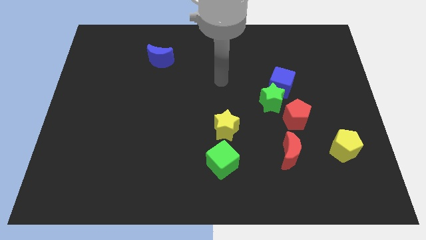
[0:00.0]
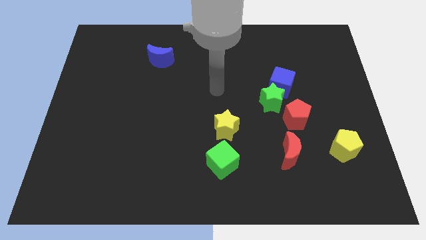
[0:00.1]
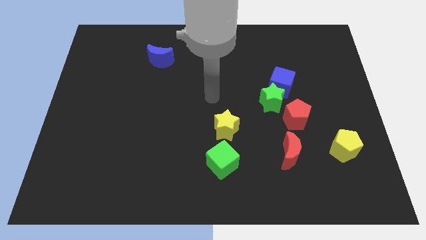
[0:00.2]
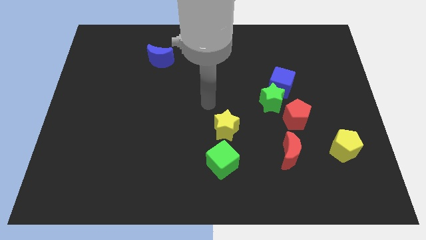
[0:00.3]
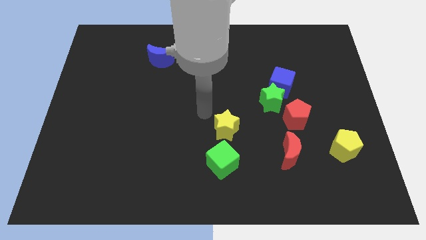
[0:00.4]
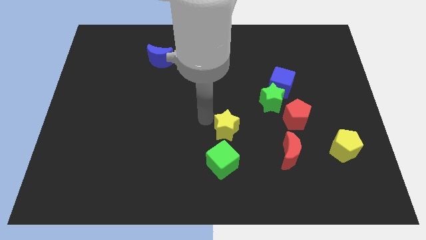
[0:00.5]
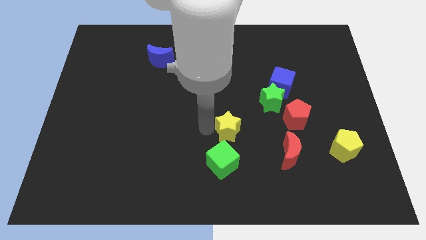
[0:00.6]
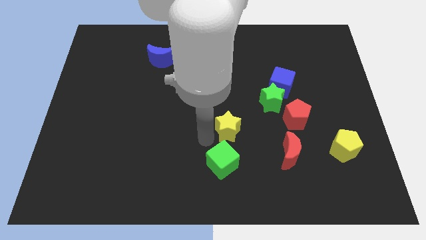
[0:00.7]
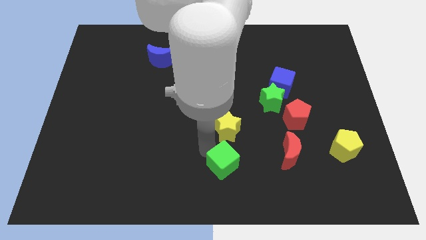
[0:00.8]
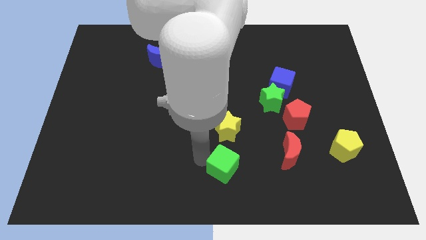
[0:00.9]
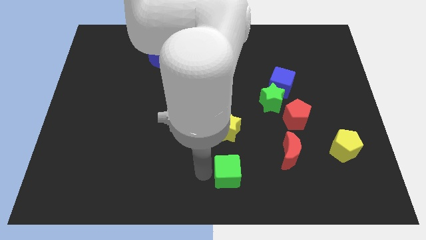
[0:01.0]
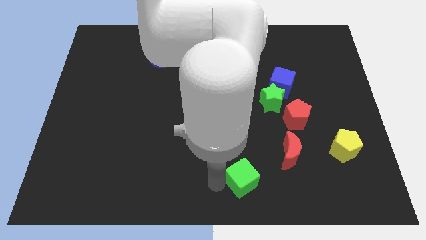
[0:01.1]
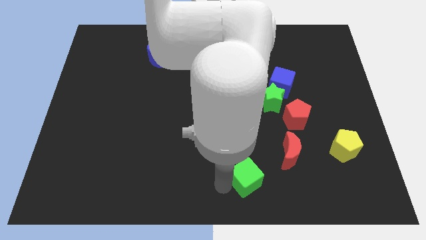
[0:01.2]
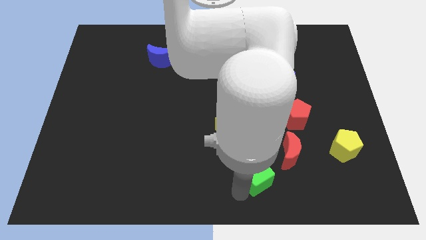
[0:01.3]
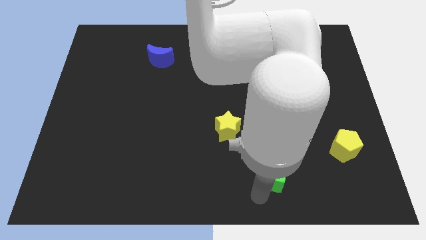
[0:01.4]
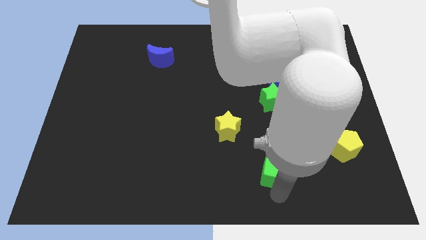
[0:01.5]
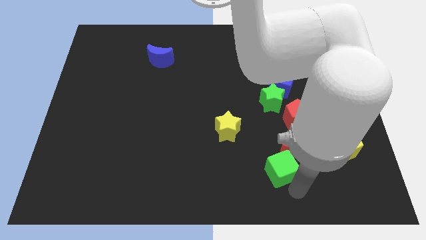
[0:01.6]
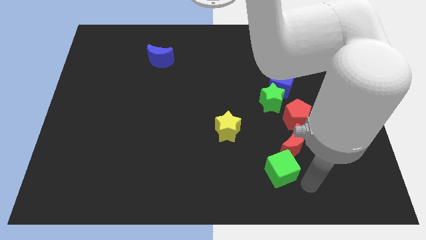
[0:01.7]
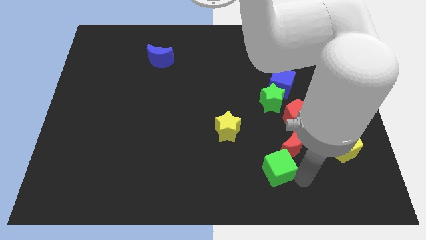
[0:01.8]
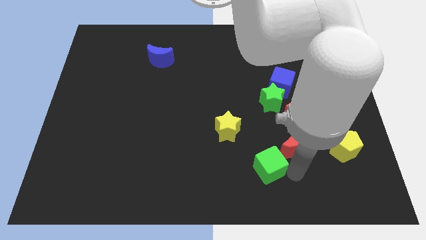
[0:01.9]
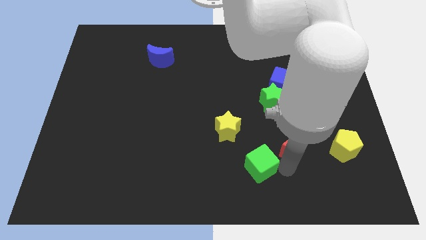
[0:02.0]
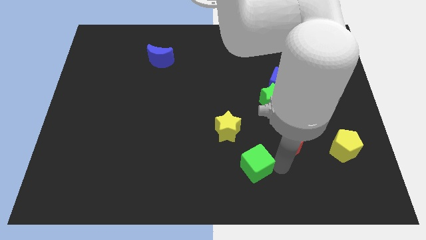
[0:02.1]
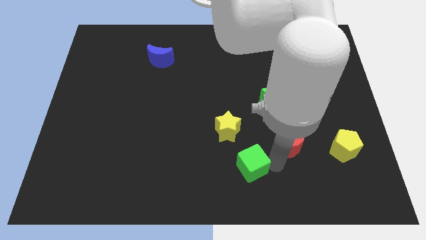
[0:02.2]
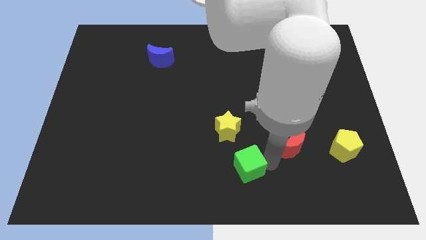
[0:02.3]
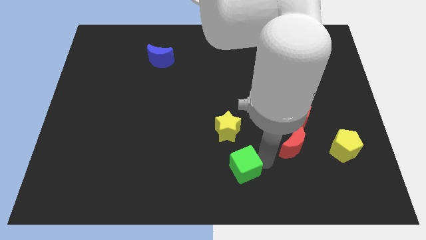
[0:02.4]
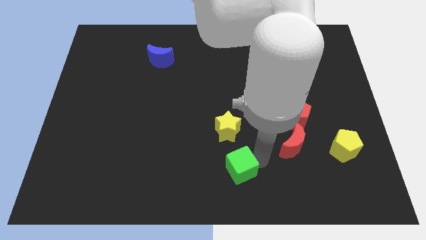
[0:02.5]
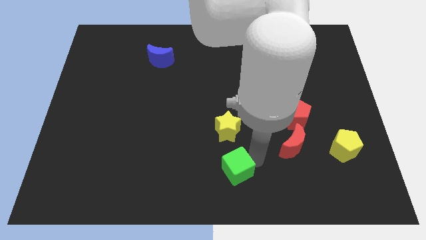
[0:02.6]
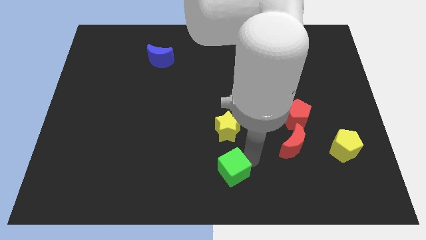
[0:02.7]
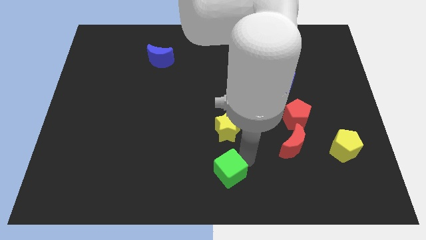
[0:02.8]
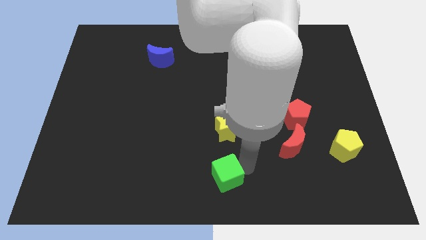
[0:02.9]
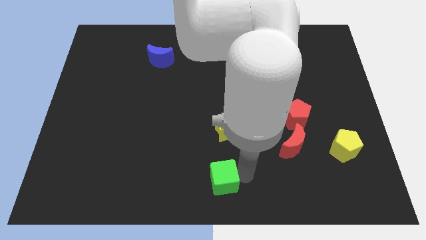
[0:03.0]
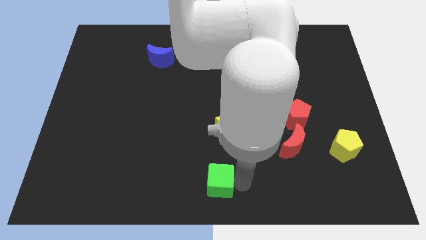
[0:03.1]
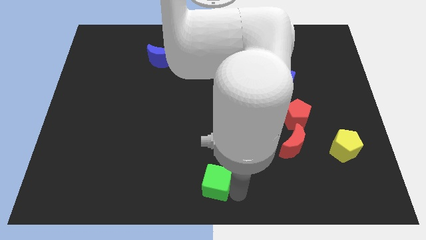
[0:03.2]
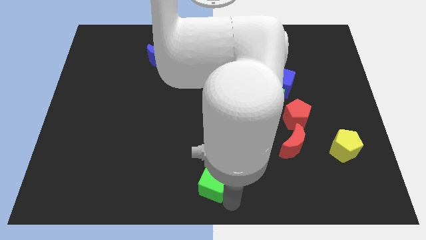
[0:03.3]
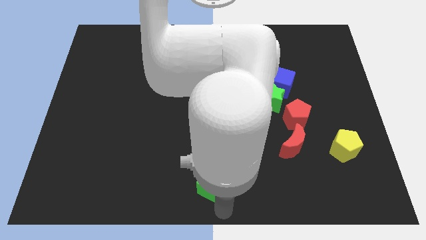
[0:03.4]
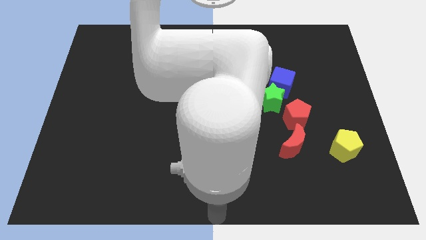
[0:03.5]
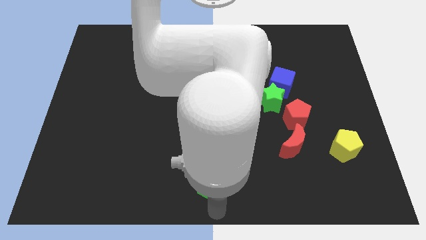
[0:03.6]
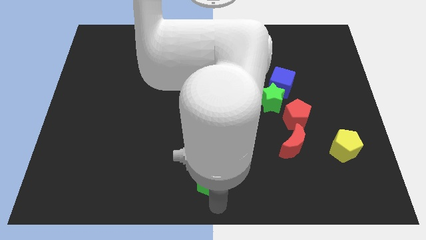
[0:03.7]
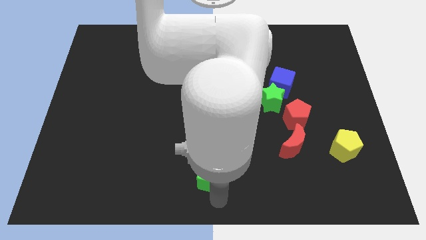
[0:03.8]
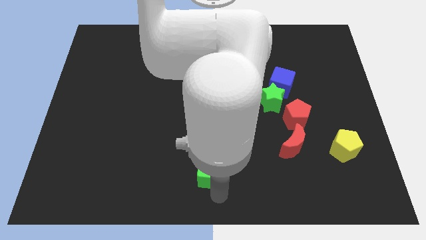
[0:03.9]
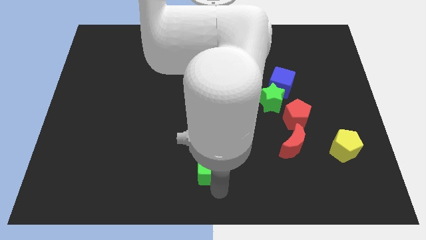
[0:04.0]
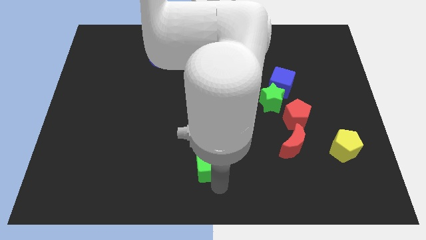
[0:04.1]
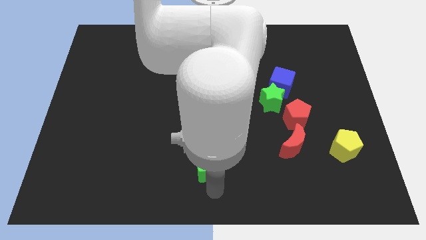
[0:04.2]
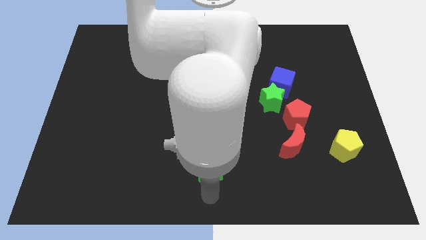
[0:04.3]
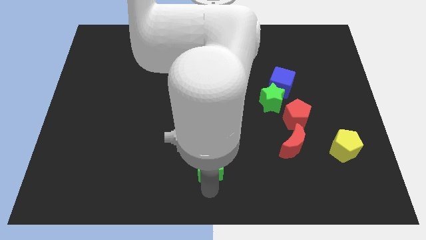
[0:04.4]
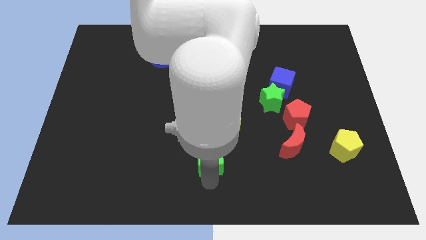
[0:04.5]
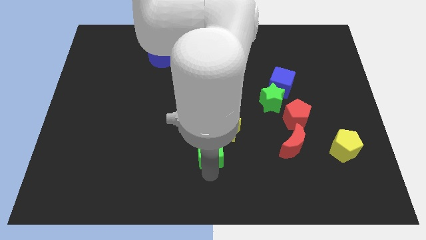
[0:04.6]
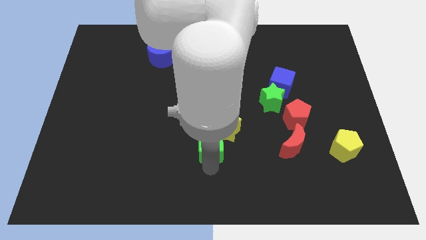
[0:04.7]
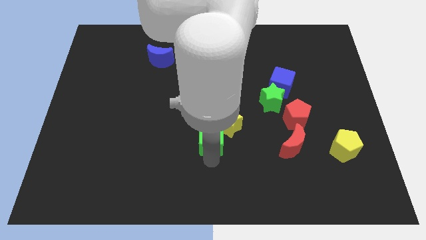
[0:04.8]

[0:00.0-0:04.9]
push the green cube to the middle of the board

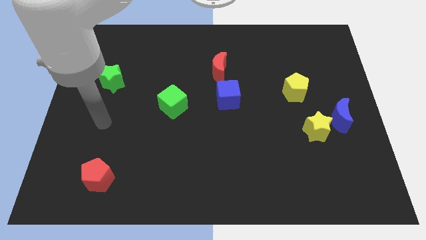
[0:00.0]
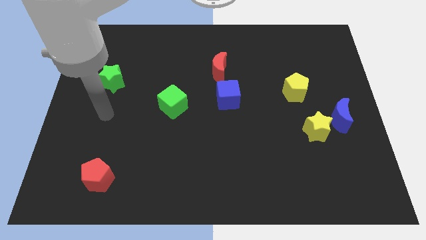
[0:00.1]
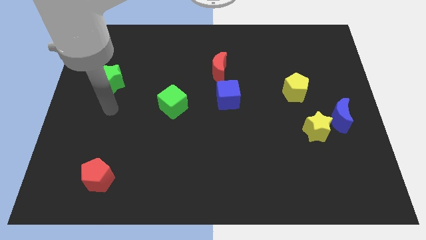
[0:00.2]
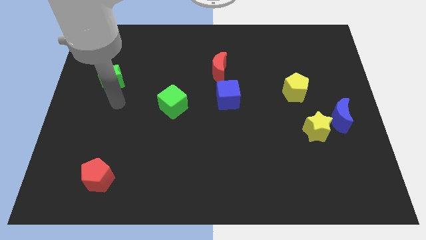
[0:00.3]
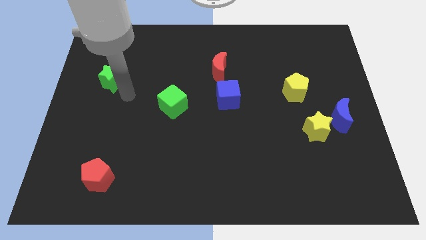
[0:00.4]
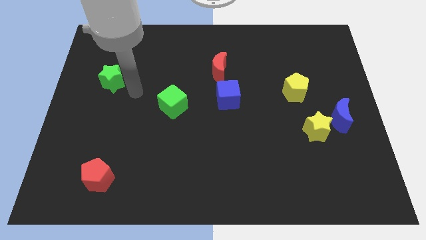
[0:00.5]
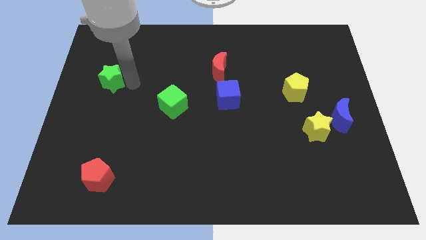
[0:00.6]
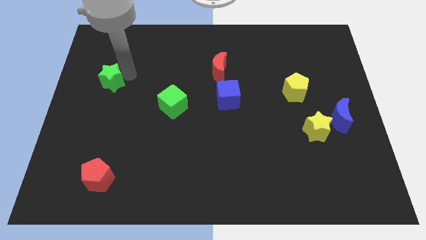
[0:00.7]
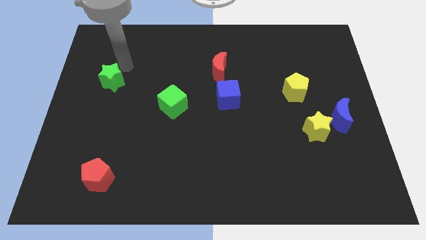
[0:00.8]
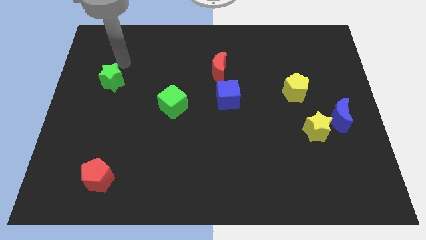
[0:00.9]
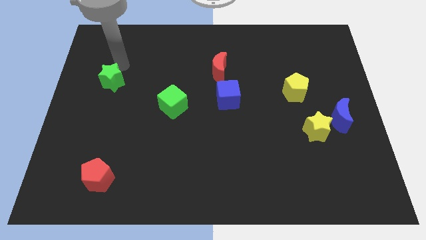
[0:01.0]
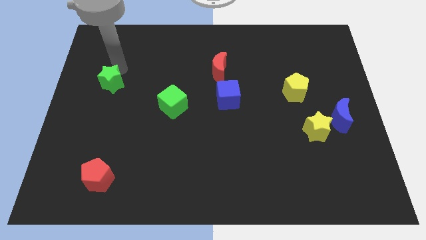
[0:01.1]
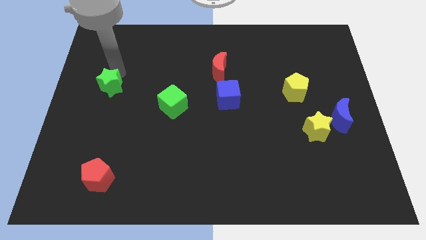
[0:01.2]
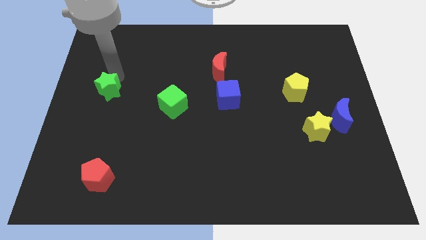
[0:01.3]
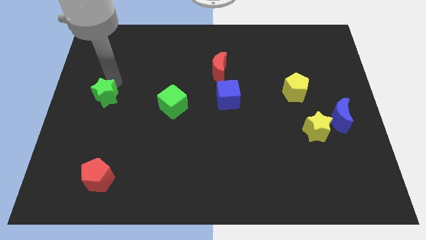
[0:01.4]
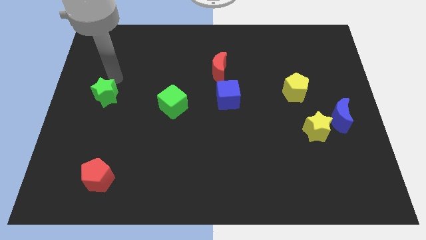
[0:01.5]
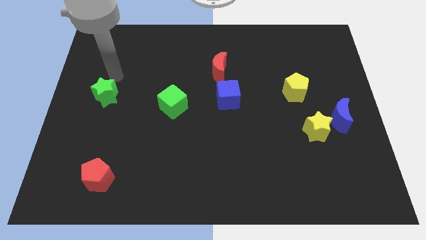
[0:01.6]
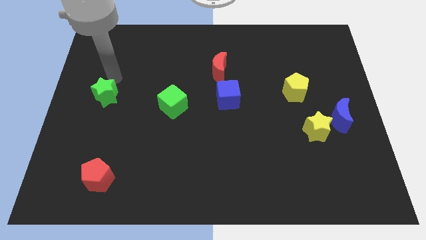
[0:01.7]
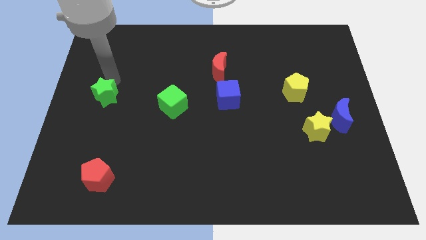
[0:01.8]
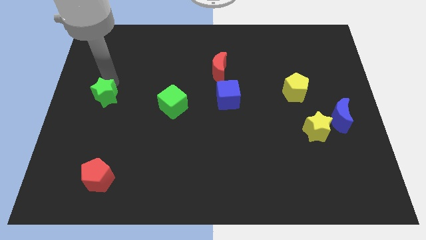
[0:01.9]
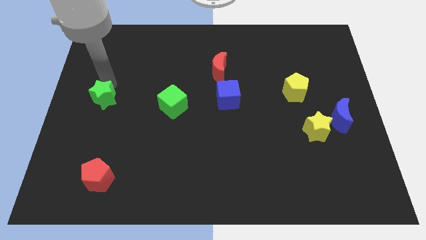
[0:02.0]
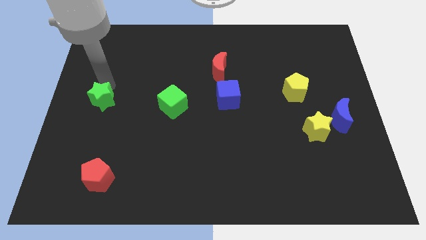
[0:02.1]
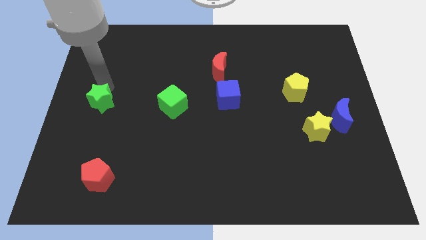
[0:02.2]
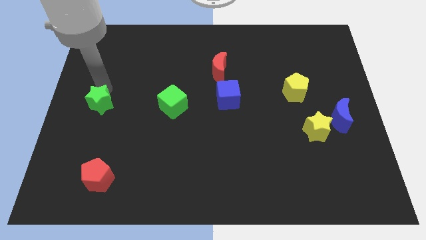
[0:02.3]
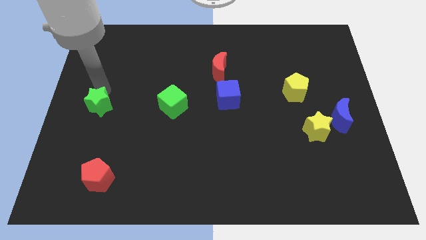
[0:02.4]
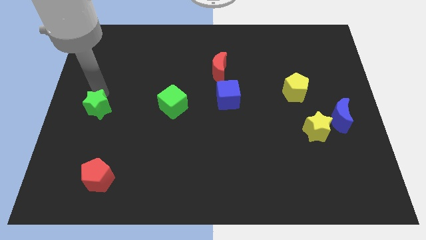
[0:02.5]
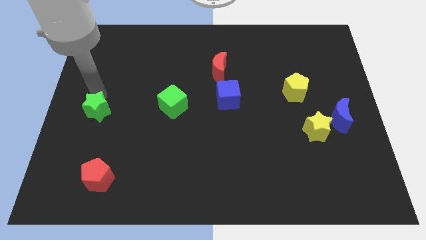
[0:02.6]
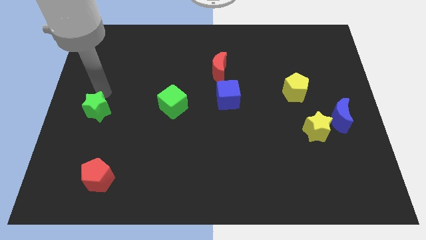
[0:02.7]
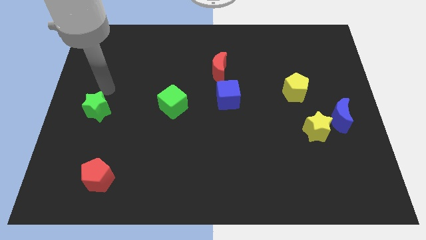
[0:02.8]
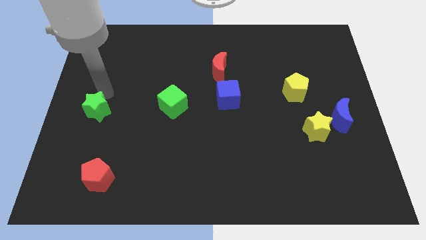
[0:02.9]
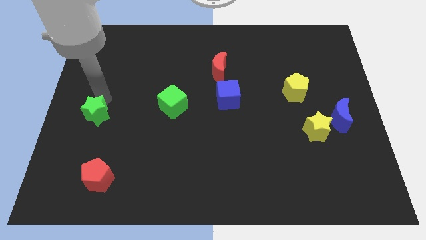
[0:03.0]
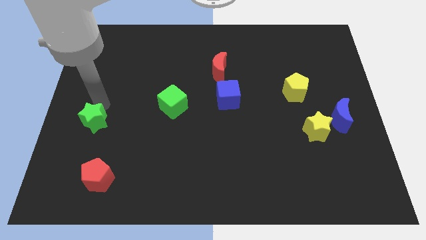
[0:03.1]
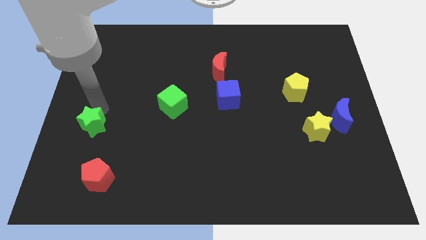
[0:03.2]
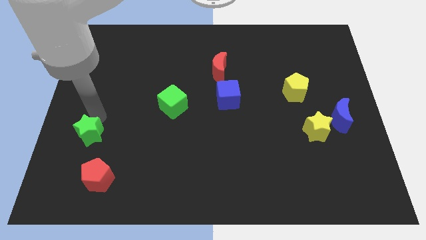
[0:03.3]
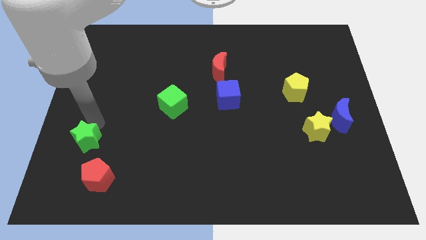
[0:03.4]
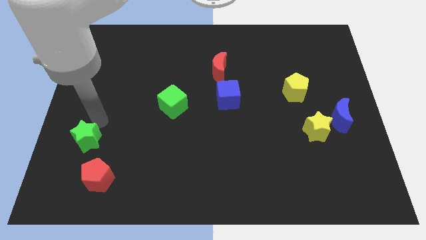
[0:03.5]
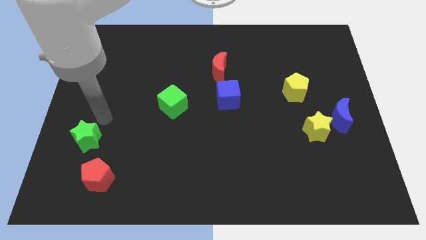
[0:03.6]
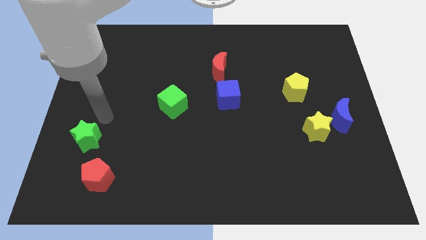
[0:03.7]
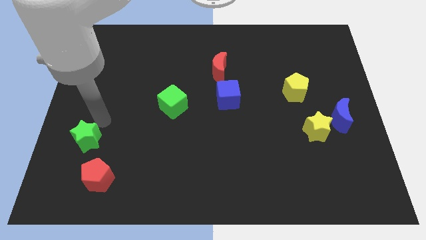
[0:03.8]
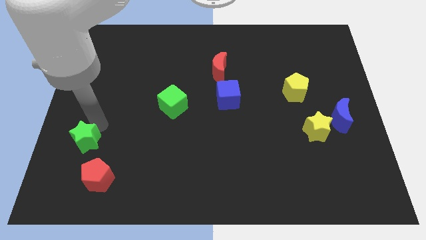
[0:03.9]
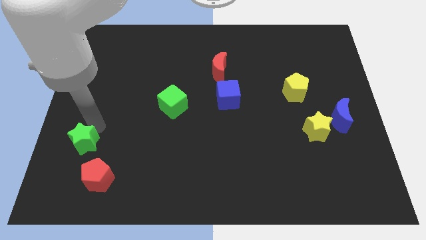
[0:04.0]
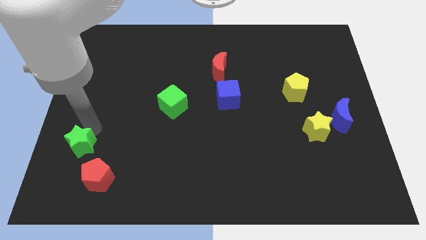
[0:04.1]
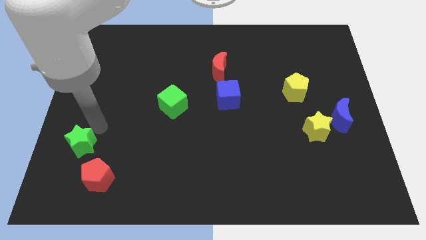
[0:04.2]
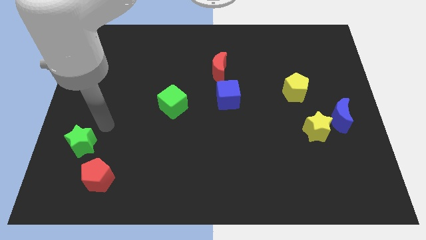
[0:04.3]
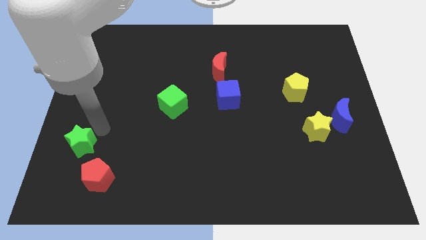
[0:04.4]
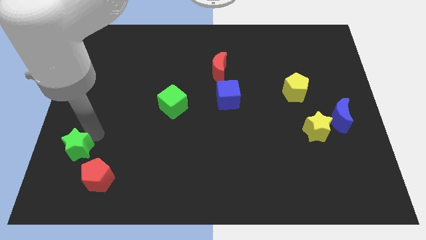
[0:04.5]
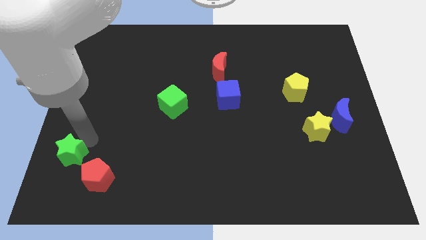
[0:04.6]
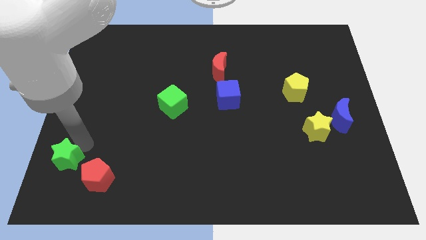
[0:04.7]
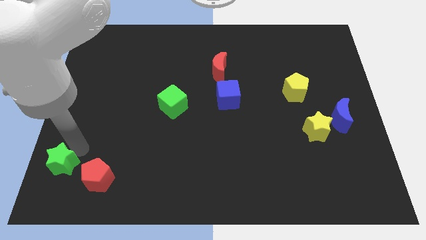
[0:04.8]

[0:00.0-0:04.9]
push the green star to the bottom left
